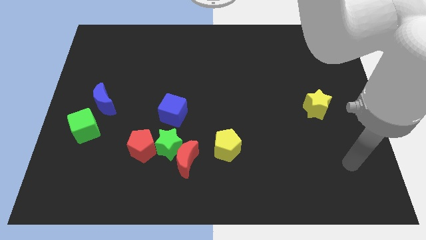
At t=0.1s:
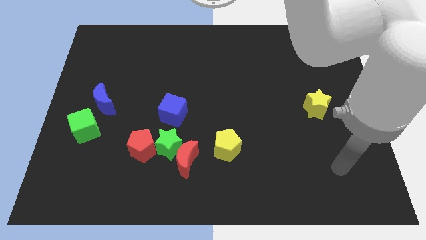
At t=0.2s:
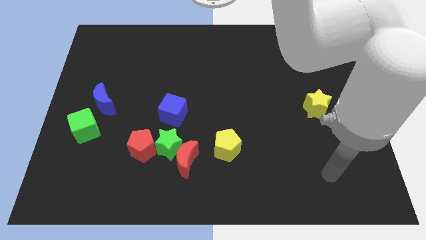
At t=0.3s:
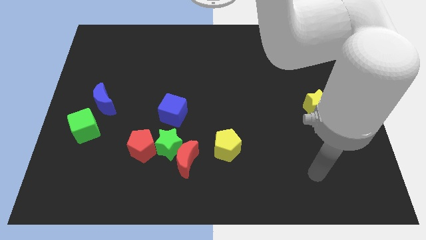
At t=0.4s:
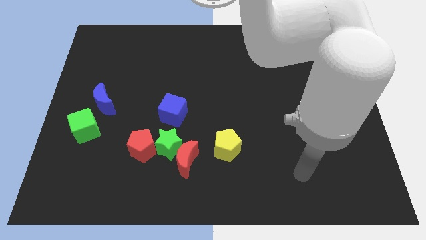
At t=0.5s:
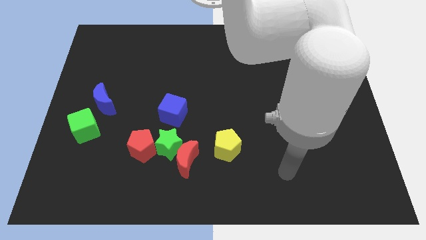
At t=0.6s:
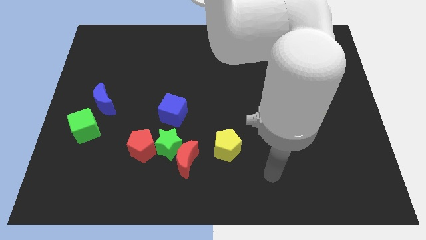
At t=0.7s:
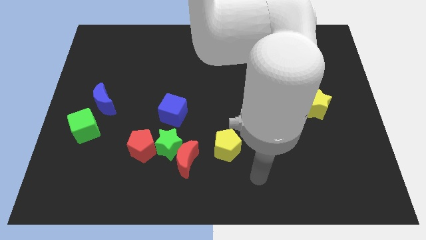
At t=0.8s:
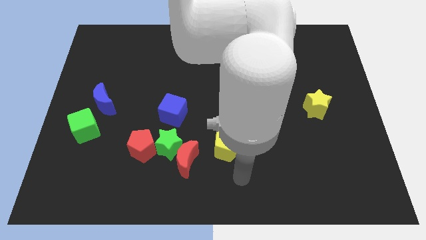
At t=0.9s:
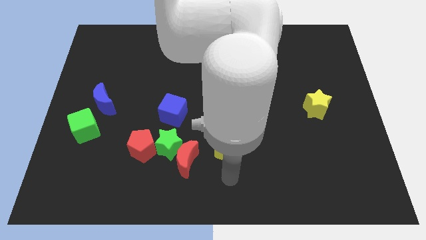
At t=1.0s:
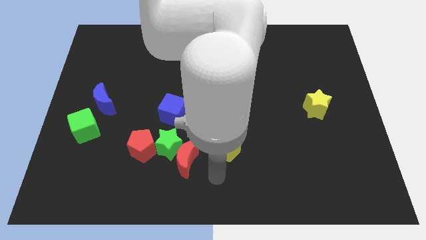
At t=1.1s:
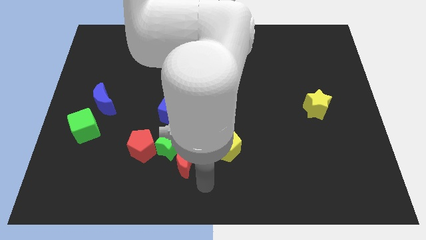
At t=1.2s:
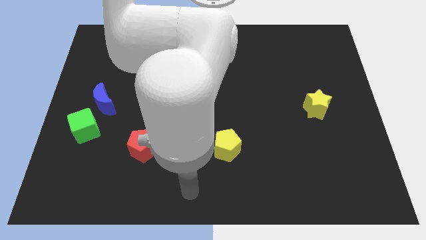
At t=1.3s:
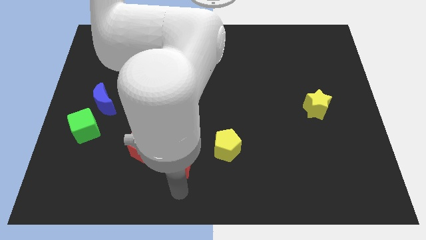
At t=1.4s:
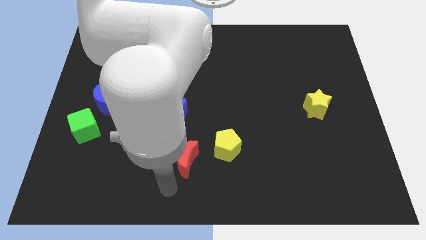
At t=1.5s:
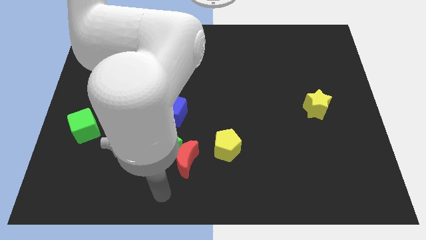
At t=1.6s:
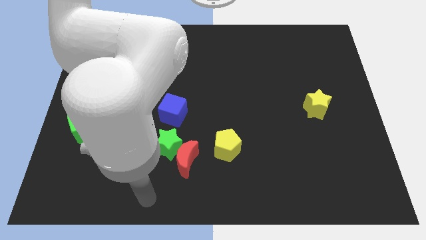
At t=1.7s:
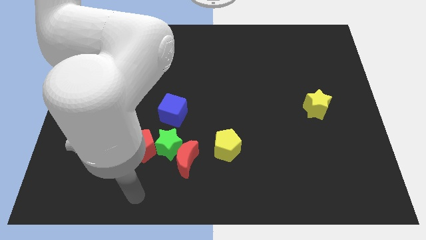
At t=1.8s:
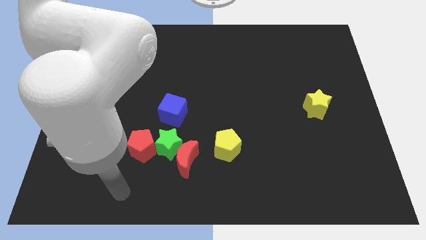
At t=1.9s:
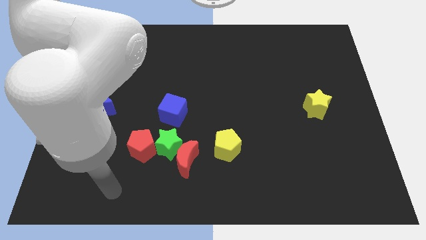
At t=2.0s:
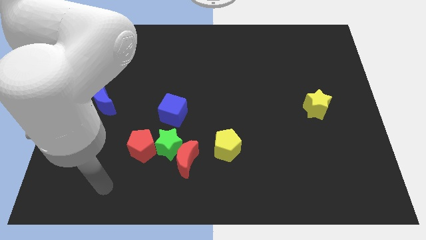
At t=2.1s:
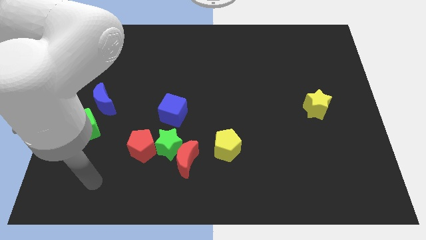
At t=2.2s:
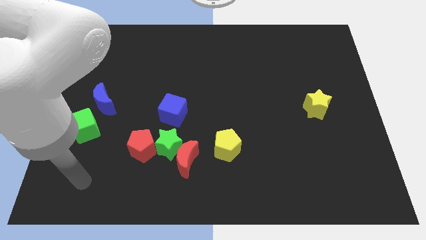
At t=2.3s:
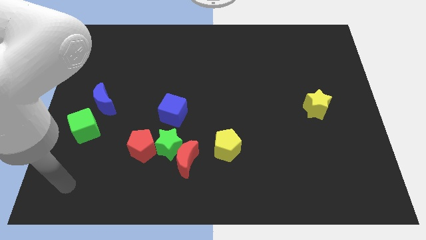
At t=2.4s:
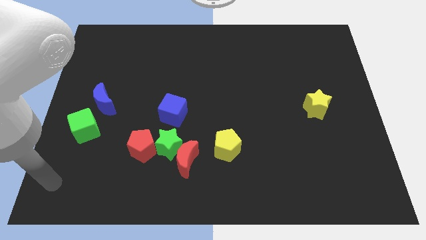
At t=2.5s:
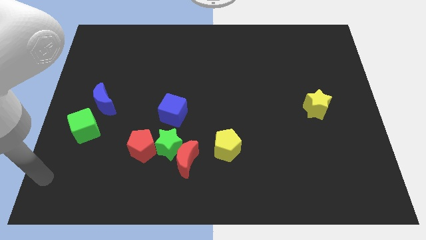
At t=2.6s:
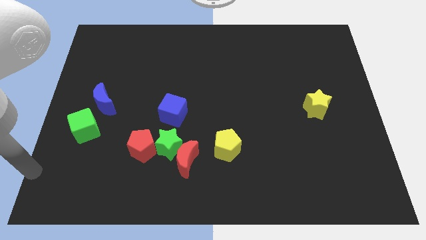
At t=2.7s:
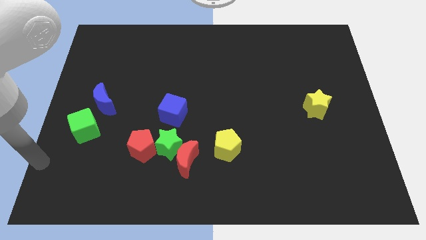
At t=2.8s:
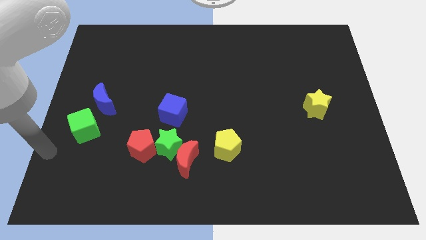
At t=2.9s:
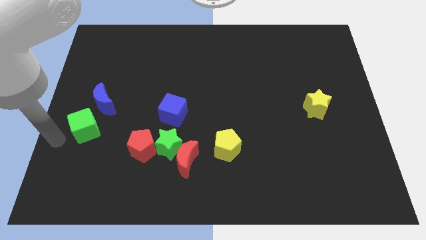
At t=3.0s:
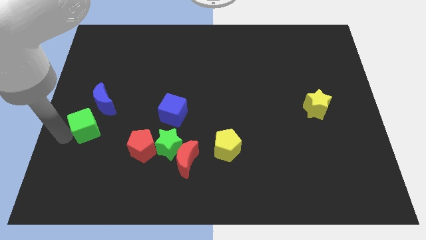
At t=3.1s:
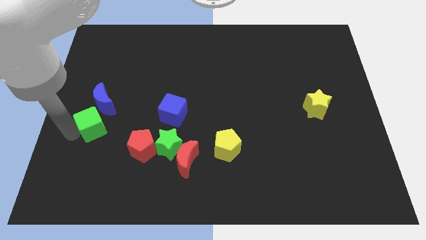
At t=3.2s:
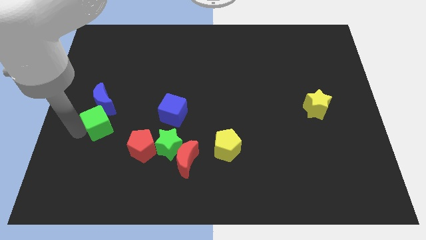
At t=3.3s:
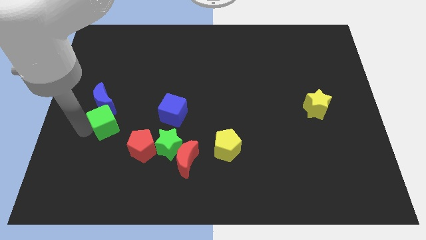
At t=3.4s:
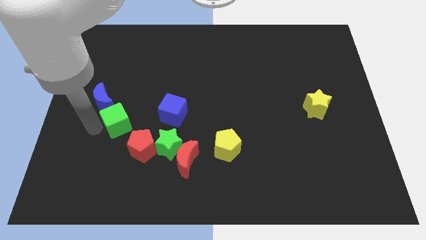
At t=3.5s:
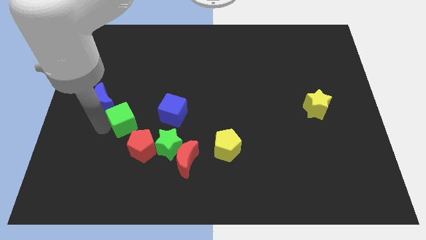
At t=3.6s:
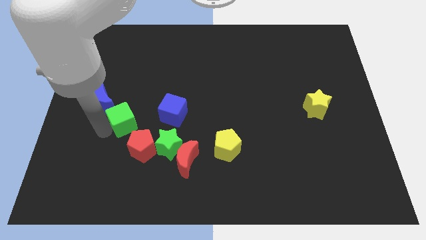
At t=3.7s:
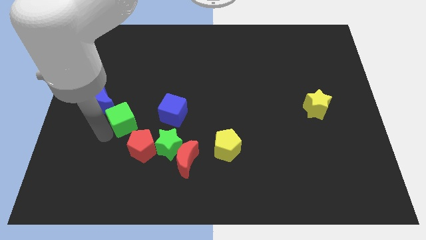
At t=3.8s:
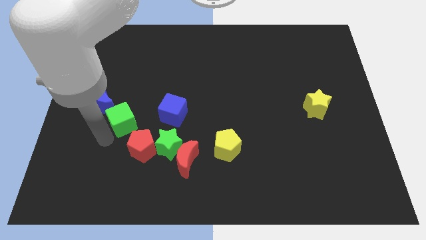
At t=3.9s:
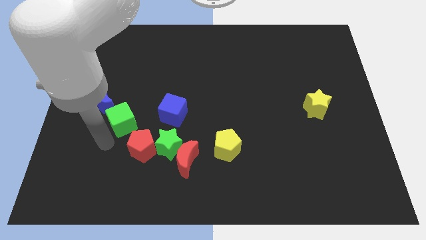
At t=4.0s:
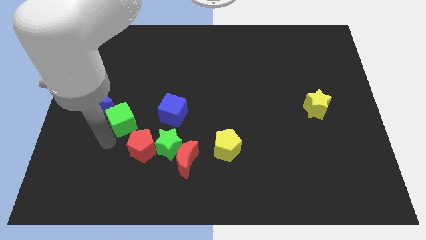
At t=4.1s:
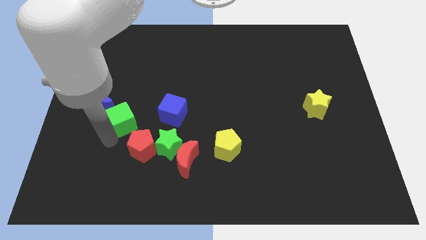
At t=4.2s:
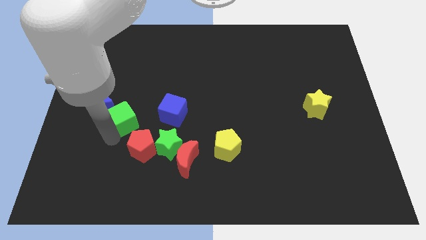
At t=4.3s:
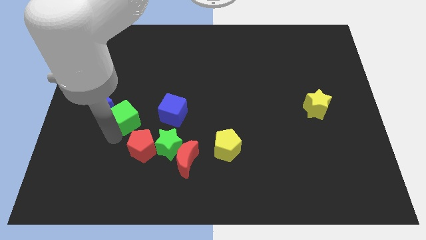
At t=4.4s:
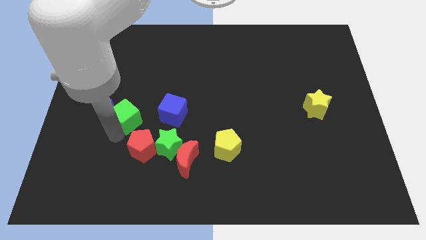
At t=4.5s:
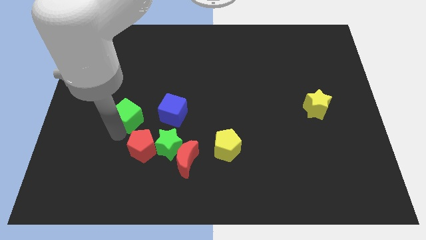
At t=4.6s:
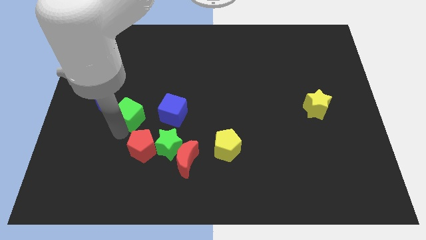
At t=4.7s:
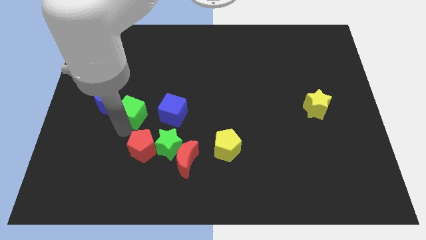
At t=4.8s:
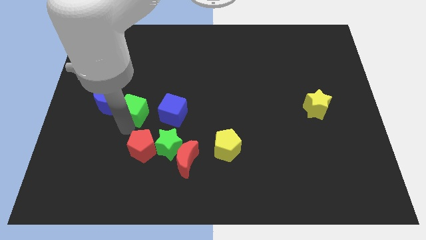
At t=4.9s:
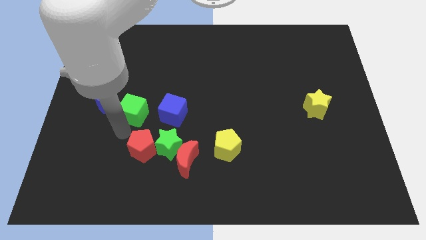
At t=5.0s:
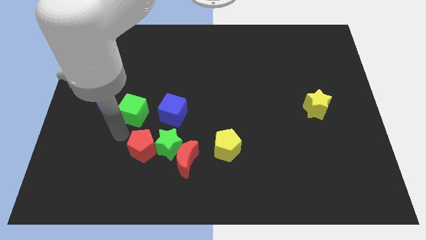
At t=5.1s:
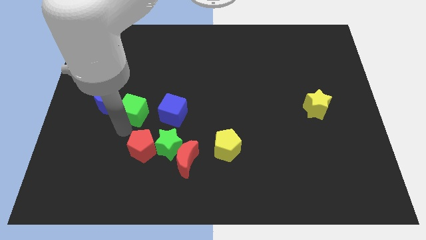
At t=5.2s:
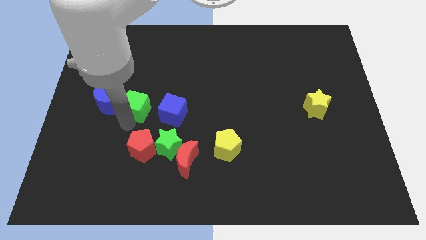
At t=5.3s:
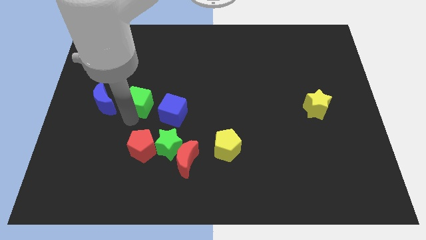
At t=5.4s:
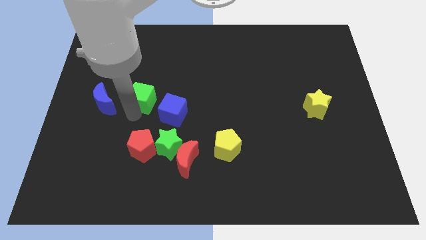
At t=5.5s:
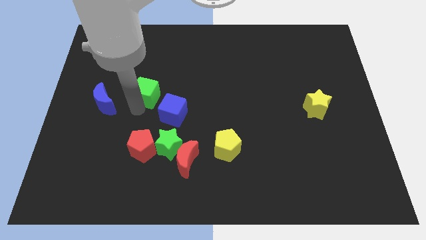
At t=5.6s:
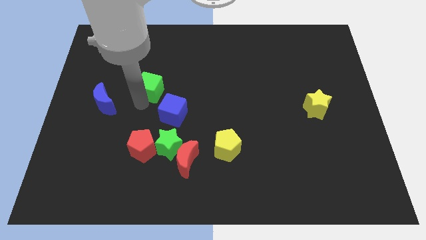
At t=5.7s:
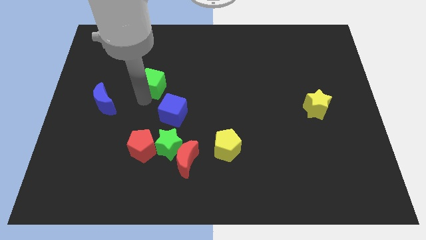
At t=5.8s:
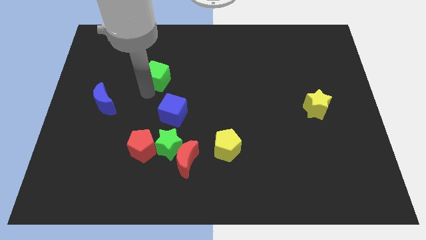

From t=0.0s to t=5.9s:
slide the green cube upwards and then to the right

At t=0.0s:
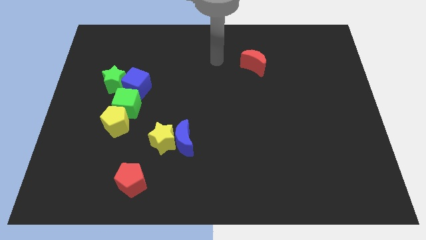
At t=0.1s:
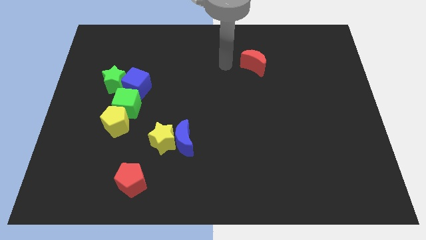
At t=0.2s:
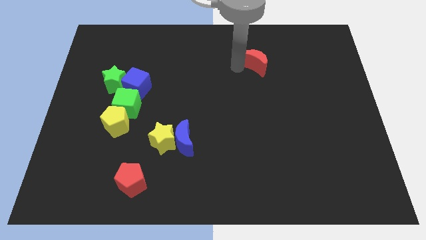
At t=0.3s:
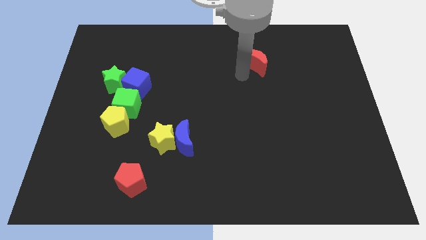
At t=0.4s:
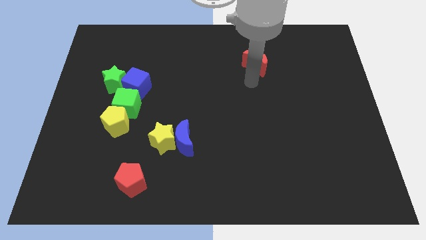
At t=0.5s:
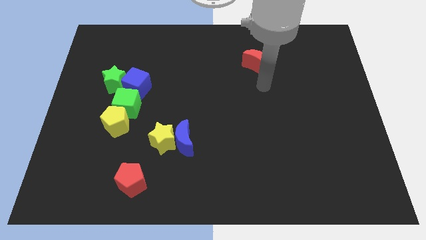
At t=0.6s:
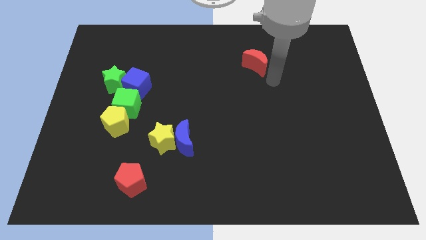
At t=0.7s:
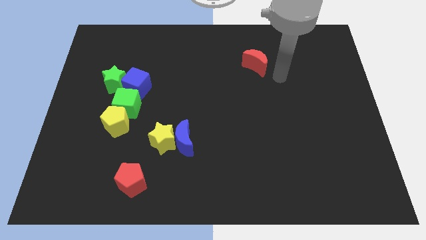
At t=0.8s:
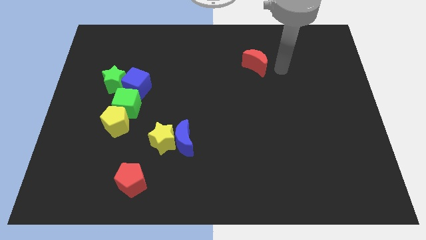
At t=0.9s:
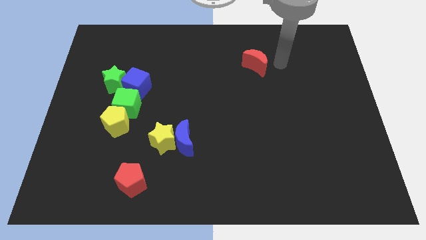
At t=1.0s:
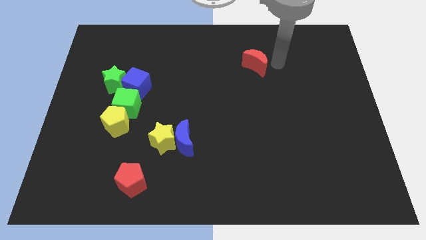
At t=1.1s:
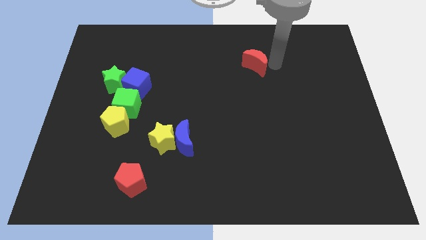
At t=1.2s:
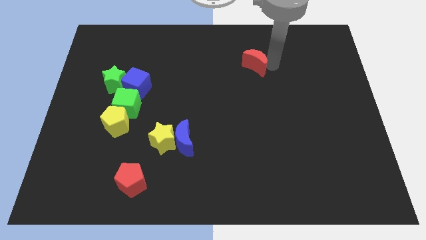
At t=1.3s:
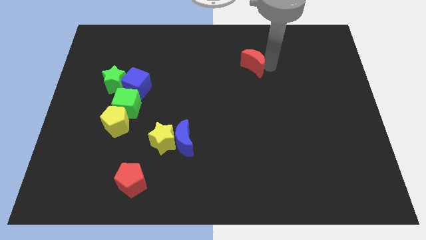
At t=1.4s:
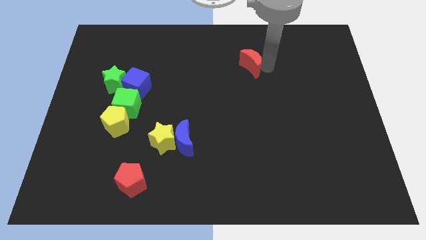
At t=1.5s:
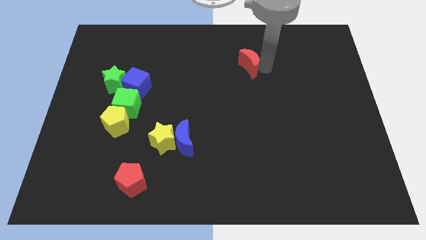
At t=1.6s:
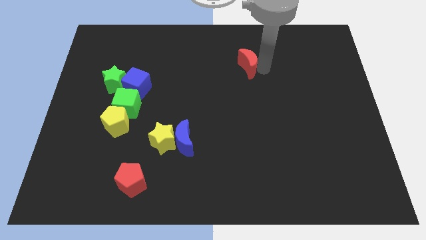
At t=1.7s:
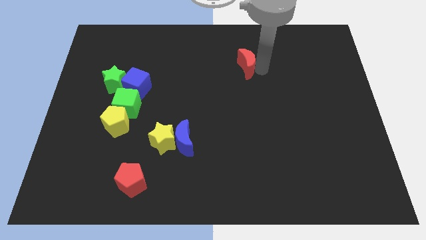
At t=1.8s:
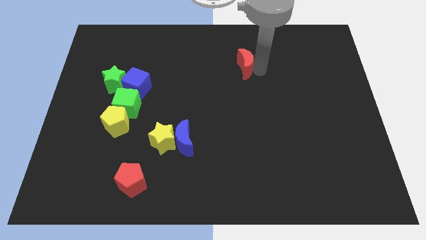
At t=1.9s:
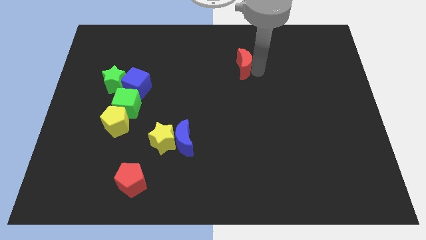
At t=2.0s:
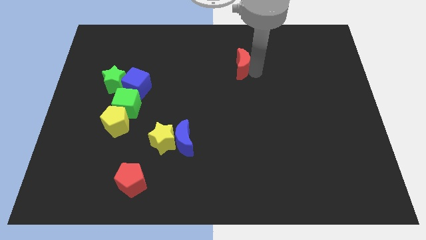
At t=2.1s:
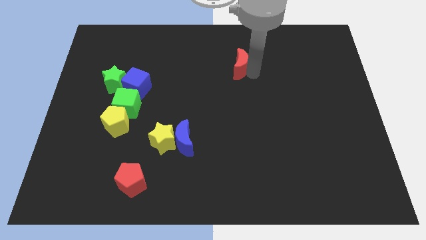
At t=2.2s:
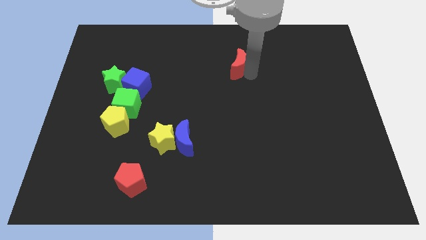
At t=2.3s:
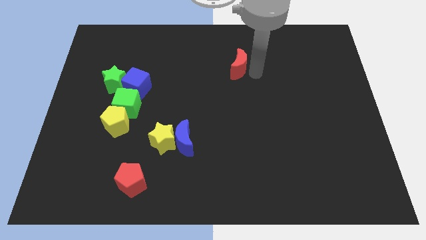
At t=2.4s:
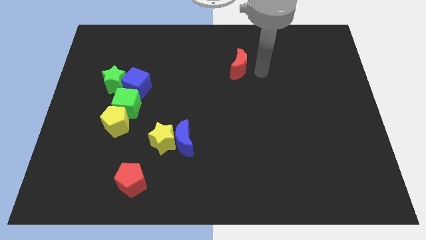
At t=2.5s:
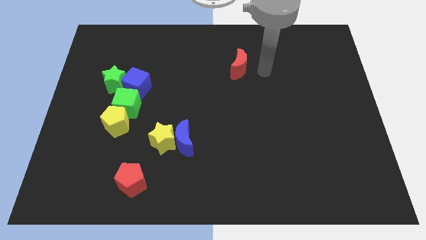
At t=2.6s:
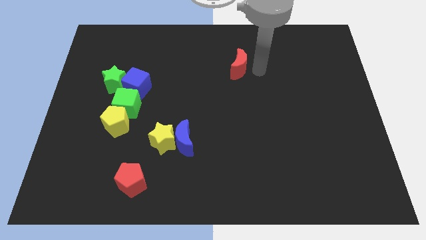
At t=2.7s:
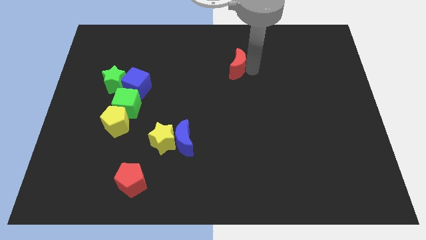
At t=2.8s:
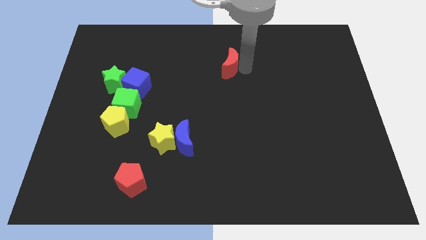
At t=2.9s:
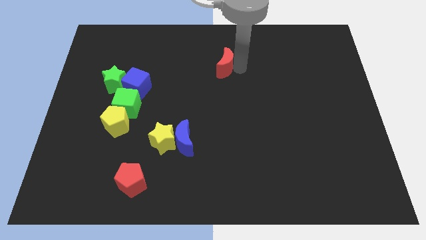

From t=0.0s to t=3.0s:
push the red moon somewhat to the left
